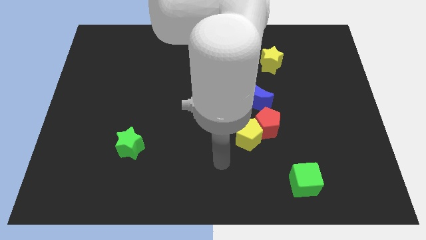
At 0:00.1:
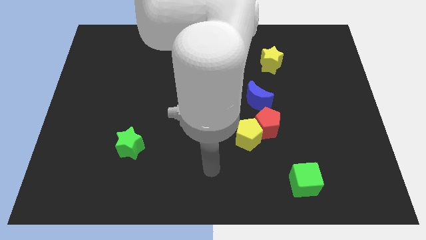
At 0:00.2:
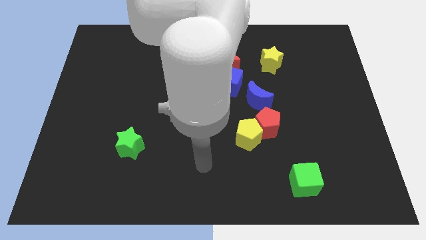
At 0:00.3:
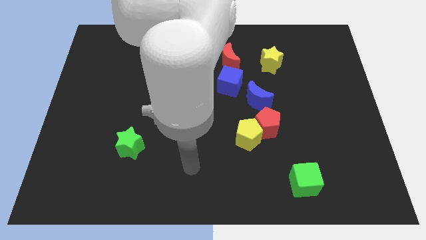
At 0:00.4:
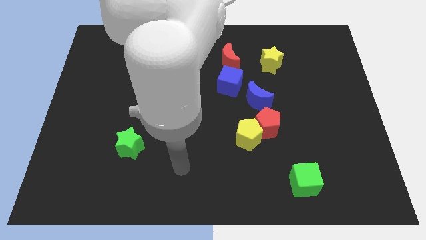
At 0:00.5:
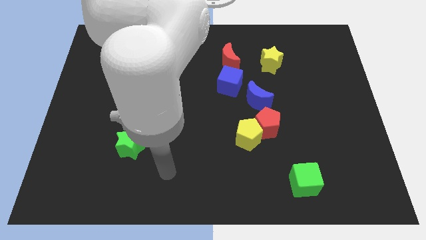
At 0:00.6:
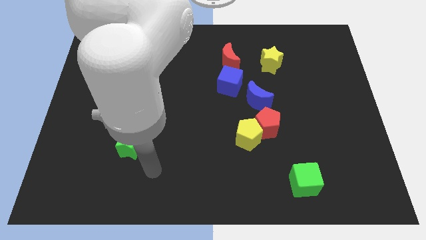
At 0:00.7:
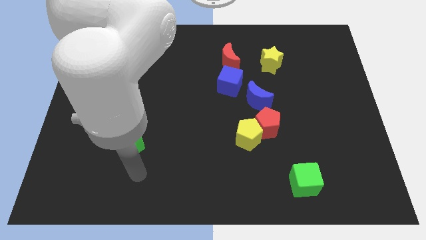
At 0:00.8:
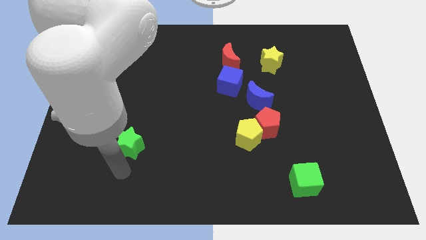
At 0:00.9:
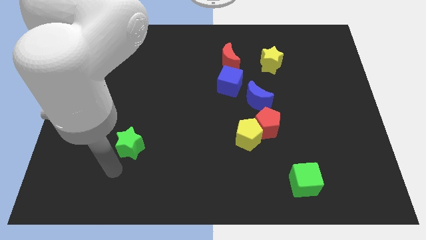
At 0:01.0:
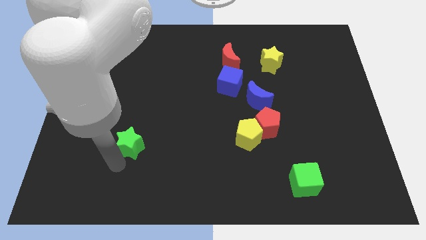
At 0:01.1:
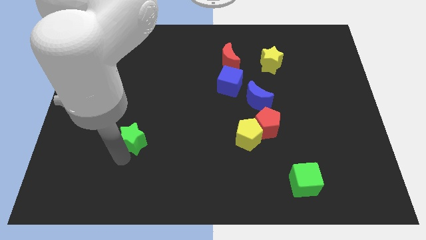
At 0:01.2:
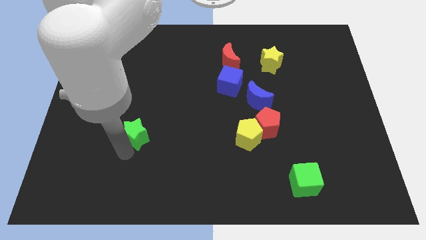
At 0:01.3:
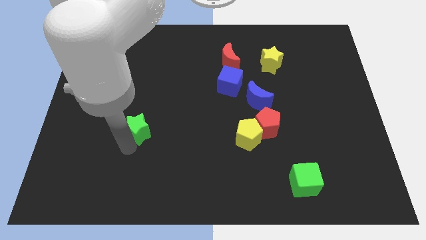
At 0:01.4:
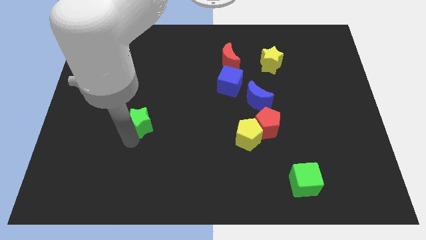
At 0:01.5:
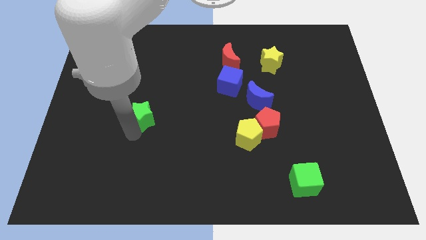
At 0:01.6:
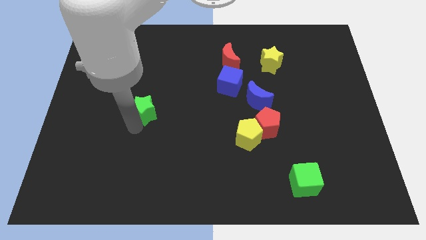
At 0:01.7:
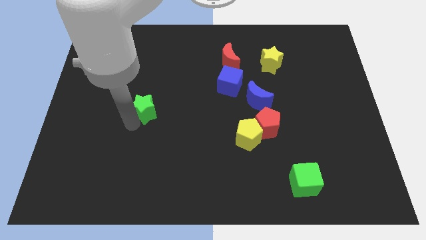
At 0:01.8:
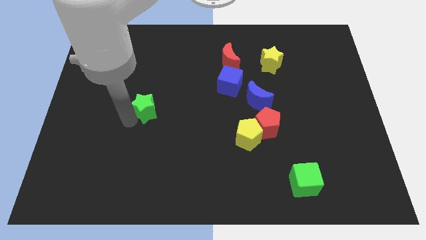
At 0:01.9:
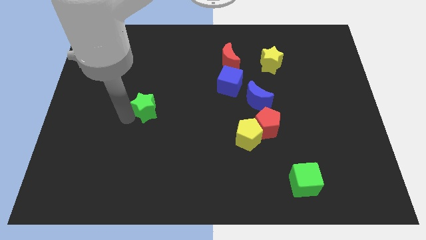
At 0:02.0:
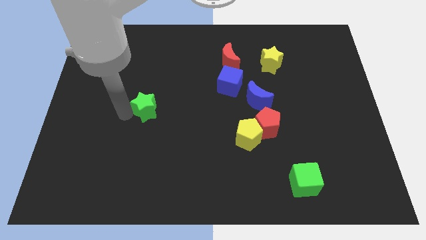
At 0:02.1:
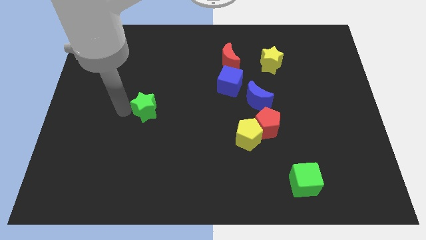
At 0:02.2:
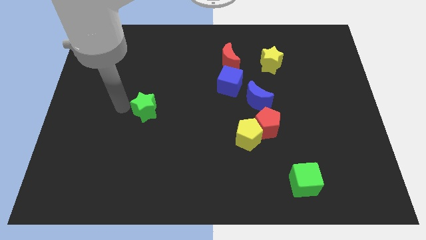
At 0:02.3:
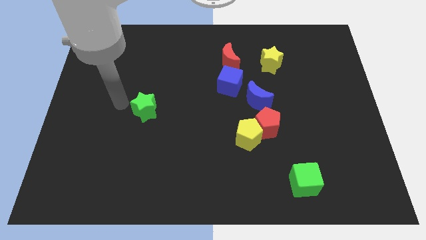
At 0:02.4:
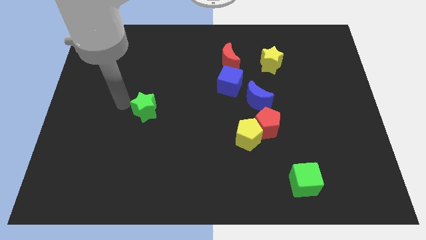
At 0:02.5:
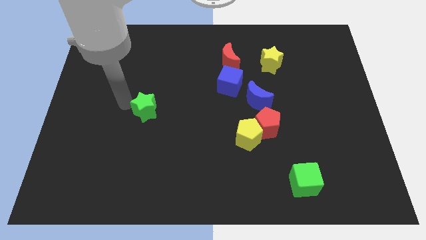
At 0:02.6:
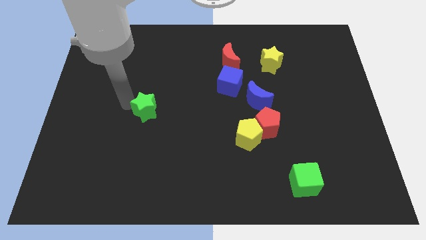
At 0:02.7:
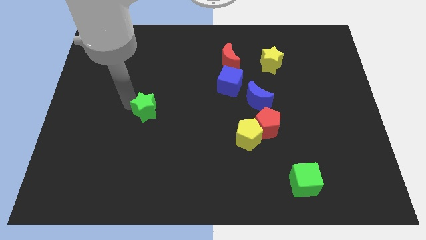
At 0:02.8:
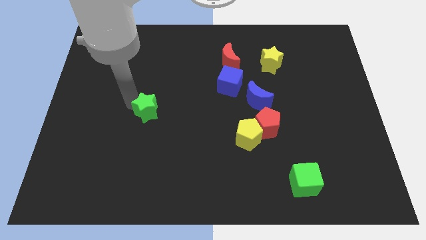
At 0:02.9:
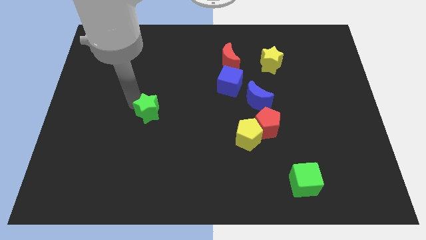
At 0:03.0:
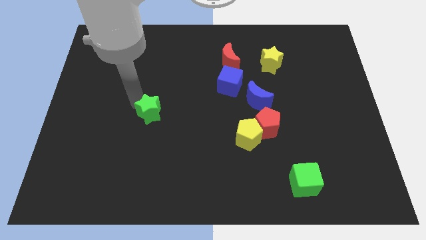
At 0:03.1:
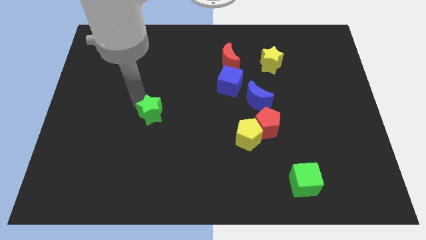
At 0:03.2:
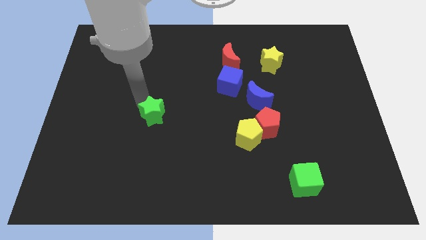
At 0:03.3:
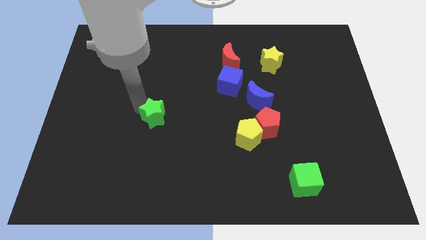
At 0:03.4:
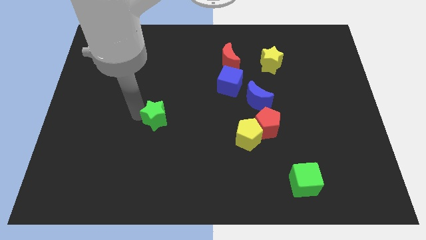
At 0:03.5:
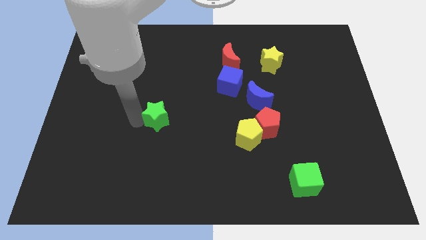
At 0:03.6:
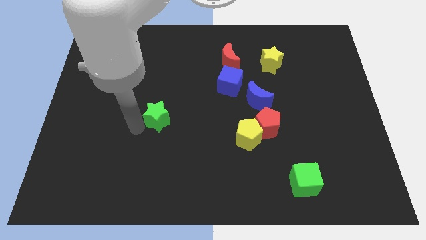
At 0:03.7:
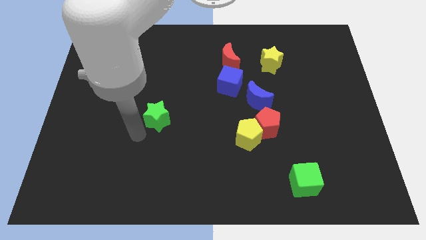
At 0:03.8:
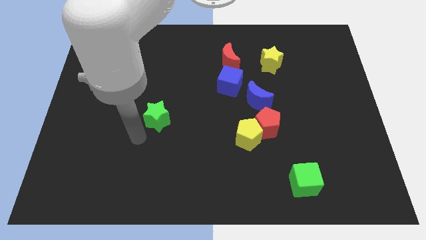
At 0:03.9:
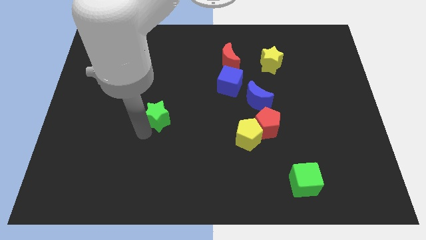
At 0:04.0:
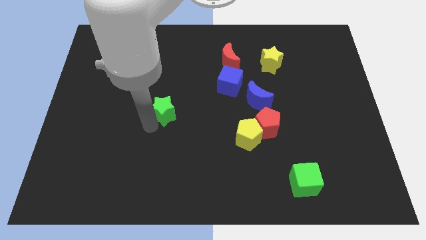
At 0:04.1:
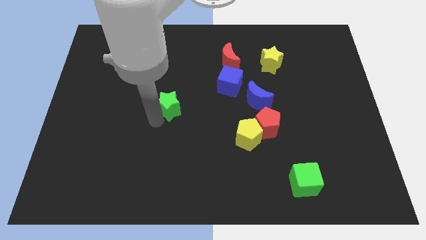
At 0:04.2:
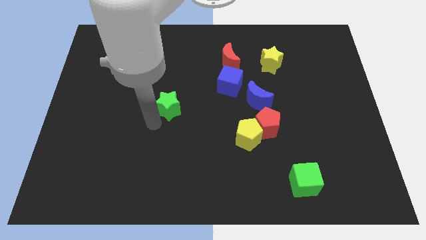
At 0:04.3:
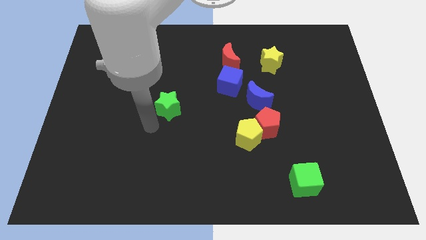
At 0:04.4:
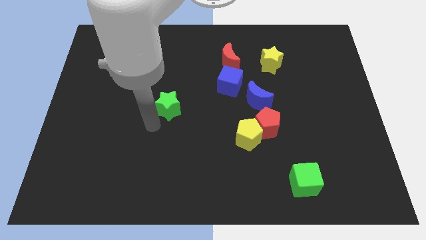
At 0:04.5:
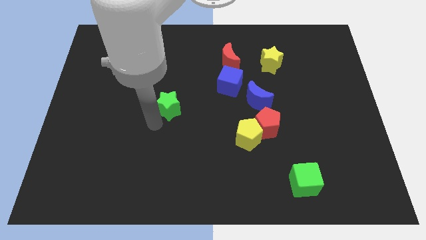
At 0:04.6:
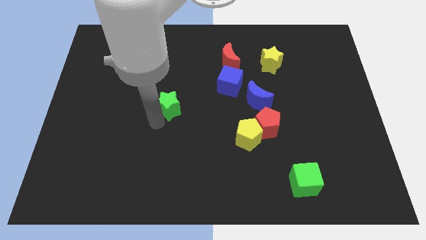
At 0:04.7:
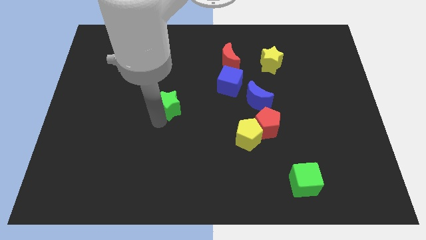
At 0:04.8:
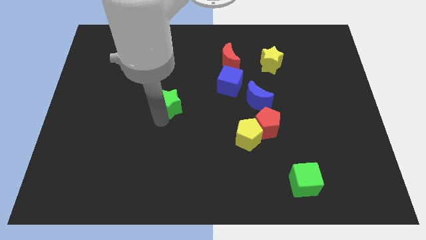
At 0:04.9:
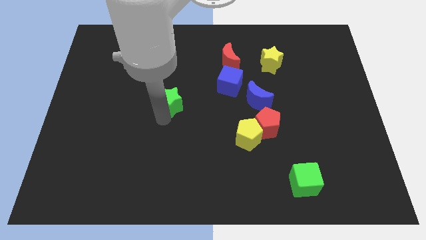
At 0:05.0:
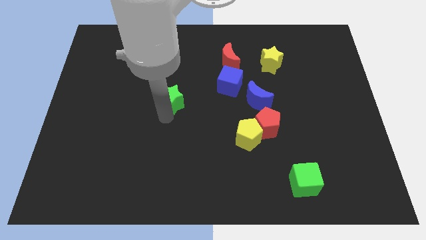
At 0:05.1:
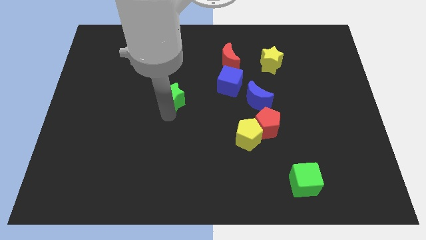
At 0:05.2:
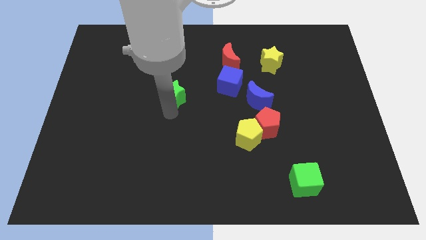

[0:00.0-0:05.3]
push the green star to the left side of the blue cube
